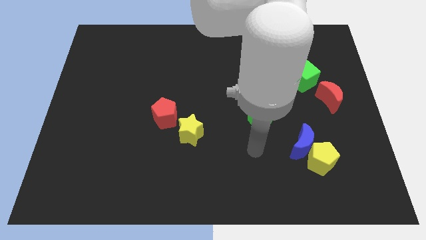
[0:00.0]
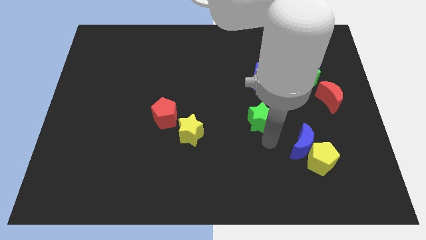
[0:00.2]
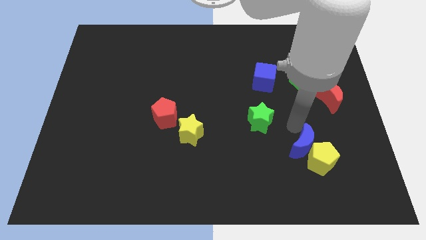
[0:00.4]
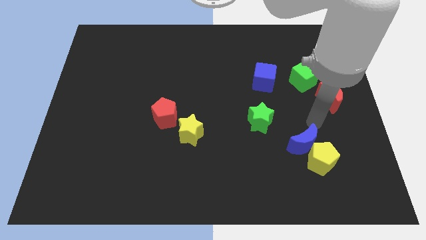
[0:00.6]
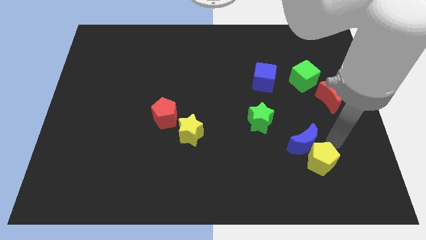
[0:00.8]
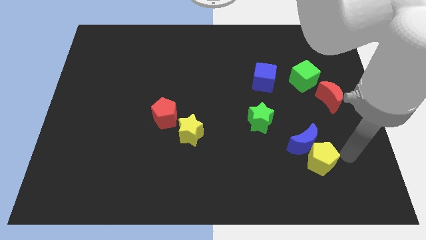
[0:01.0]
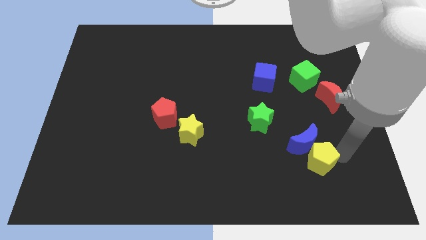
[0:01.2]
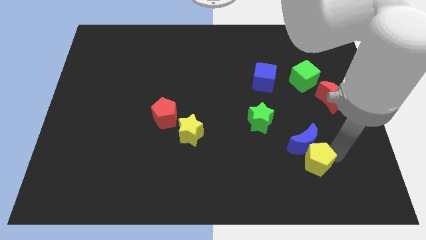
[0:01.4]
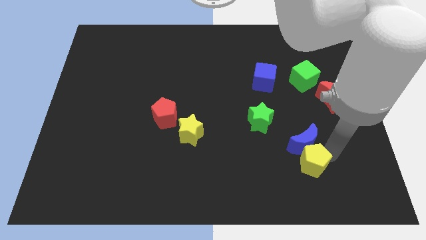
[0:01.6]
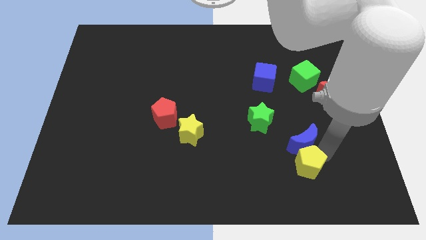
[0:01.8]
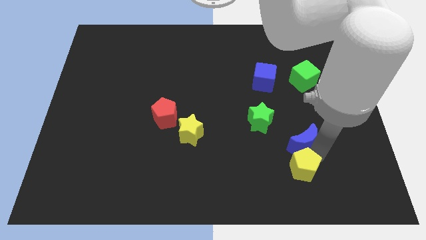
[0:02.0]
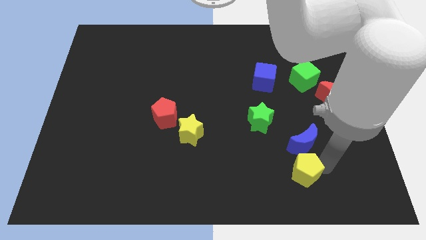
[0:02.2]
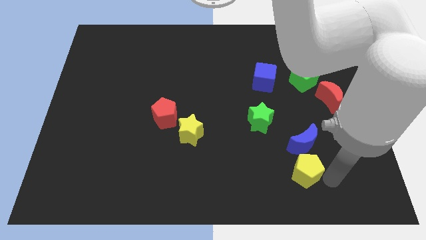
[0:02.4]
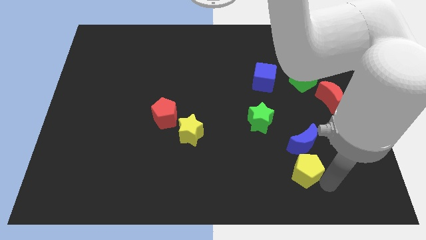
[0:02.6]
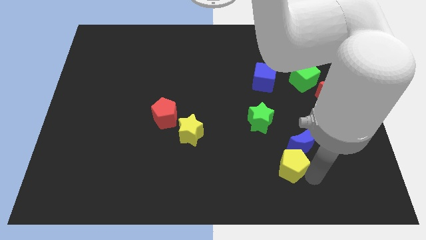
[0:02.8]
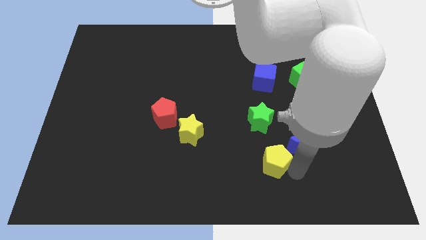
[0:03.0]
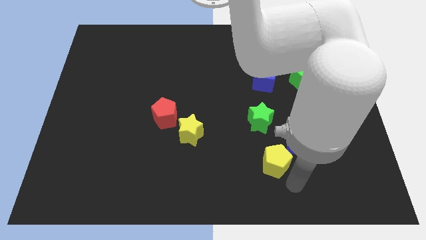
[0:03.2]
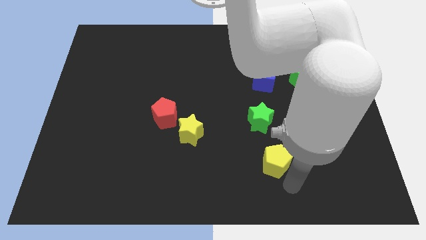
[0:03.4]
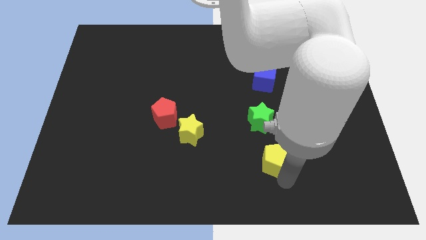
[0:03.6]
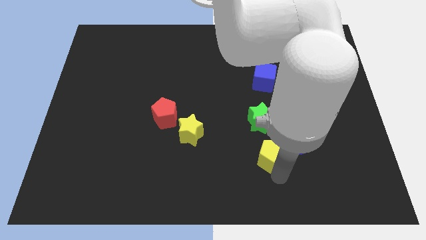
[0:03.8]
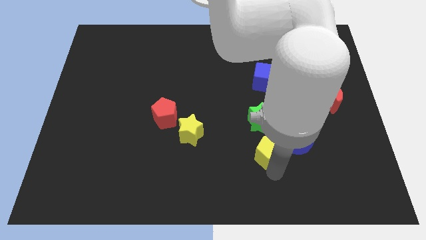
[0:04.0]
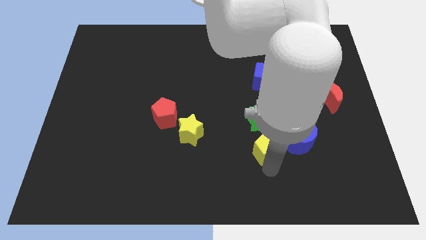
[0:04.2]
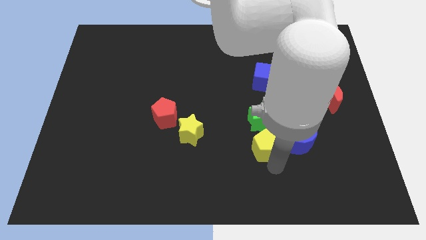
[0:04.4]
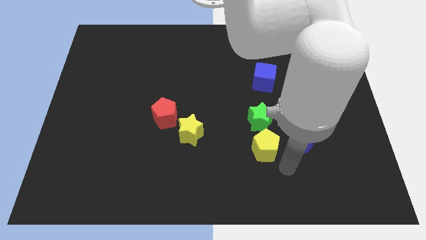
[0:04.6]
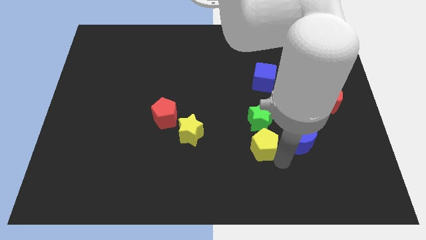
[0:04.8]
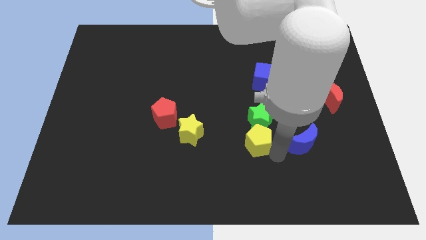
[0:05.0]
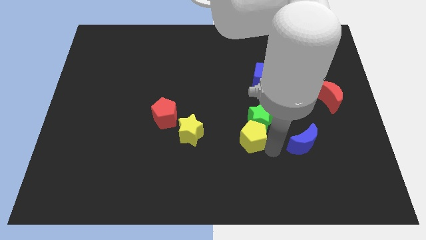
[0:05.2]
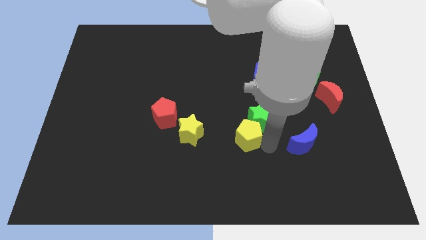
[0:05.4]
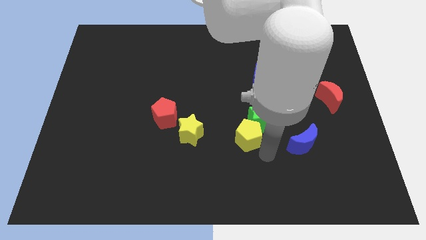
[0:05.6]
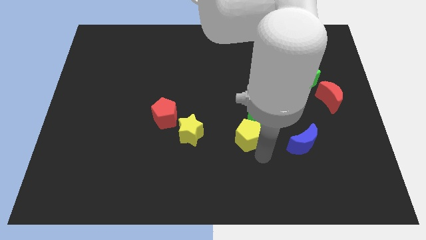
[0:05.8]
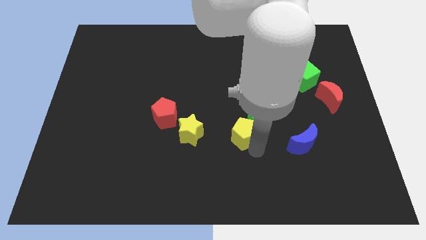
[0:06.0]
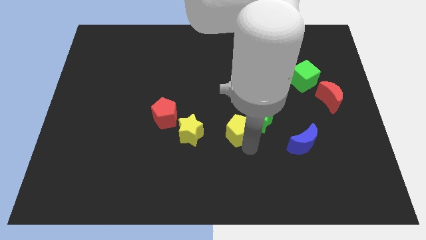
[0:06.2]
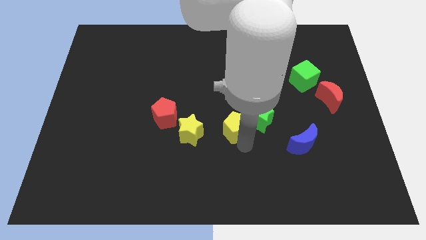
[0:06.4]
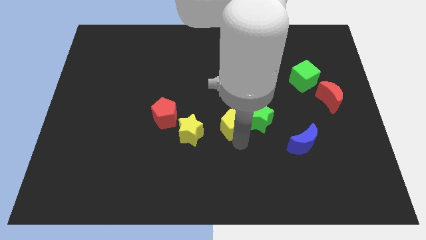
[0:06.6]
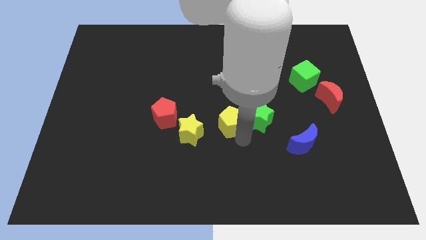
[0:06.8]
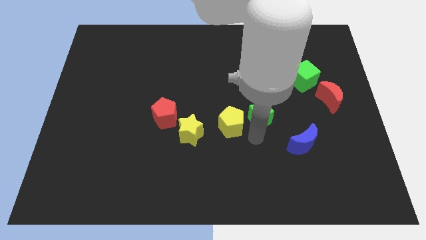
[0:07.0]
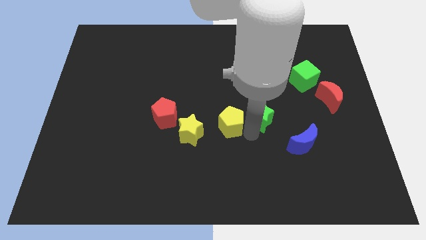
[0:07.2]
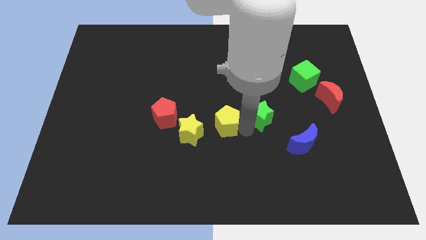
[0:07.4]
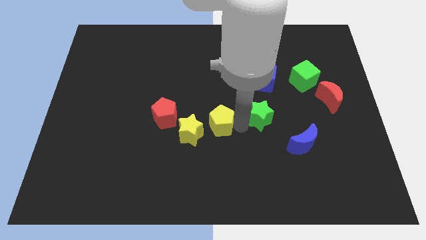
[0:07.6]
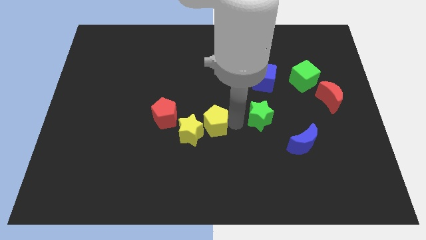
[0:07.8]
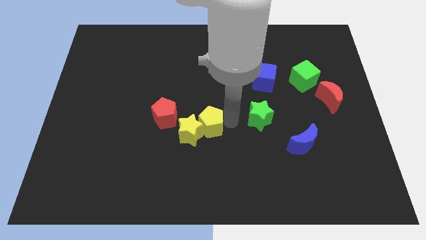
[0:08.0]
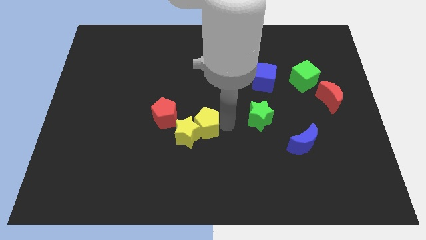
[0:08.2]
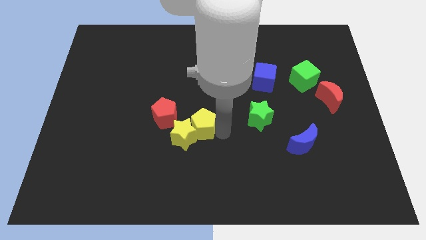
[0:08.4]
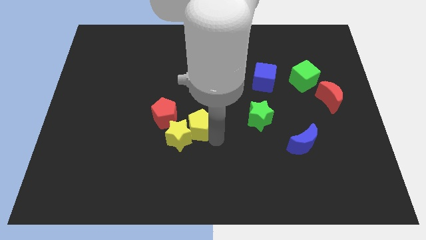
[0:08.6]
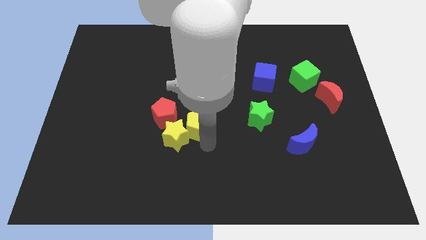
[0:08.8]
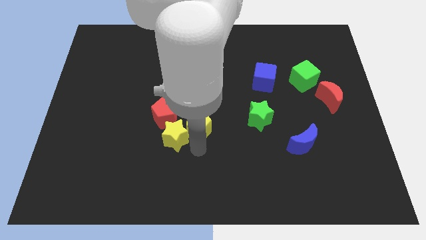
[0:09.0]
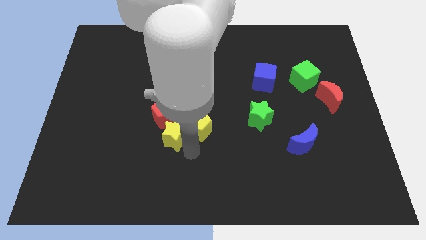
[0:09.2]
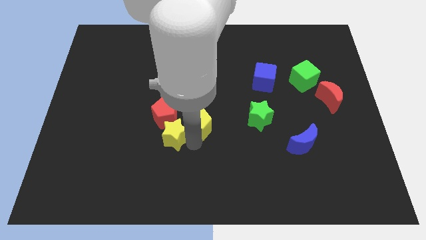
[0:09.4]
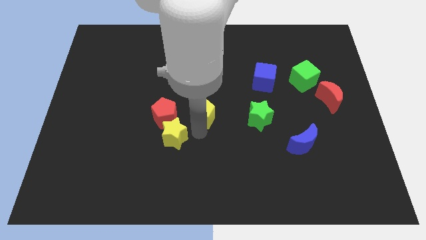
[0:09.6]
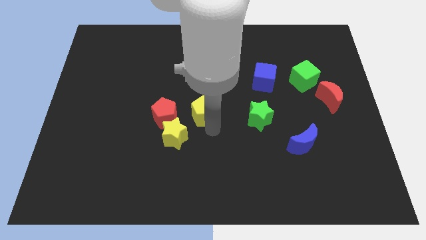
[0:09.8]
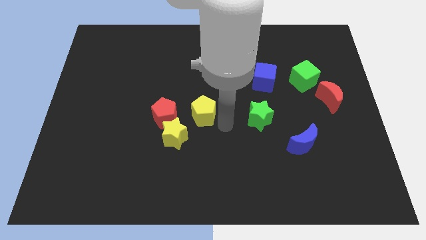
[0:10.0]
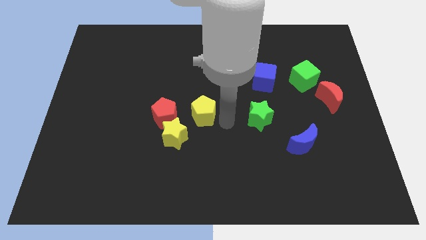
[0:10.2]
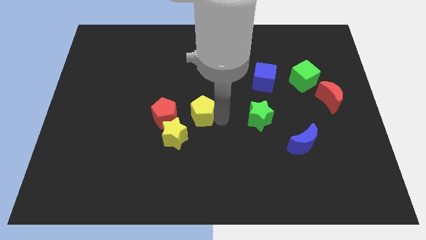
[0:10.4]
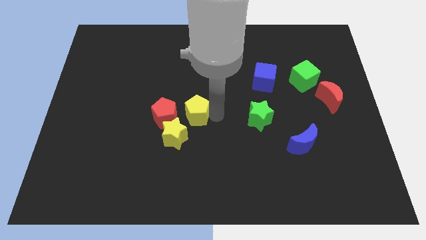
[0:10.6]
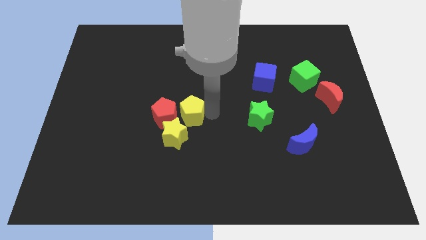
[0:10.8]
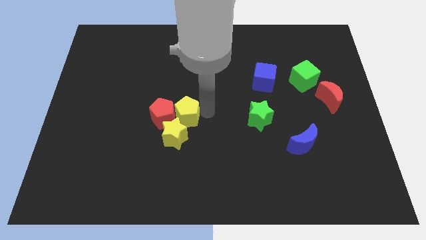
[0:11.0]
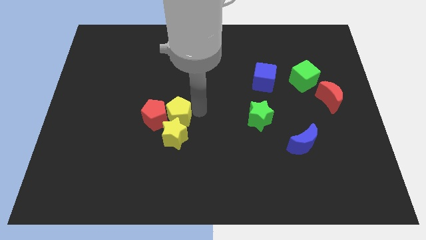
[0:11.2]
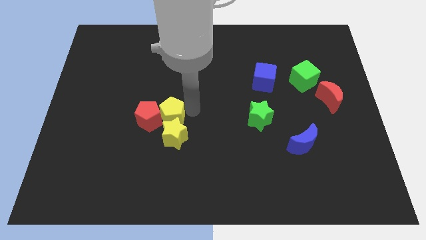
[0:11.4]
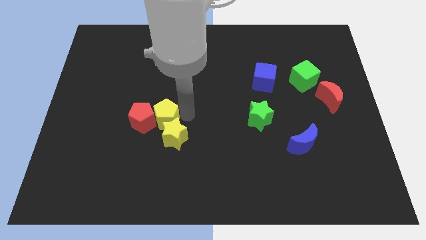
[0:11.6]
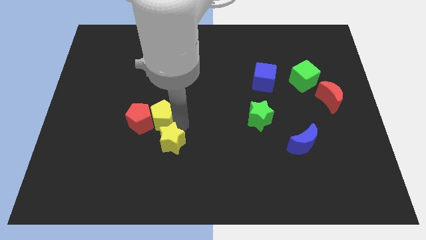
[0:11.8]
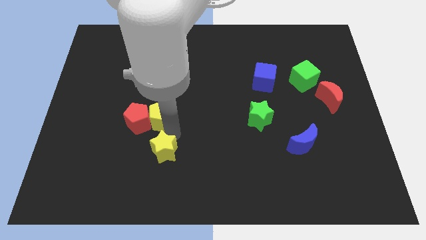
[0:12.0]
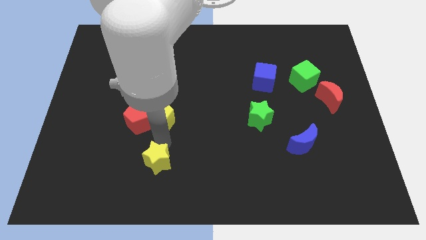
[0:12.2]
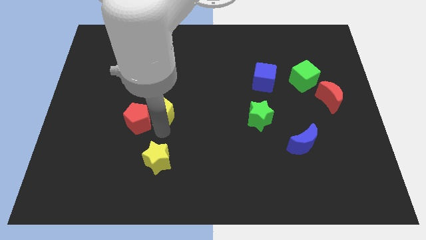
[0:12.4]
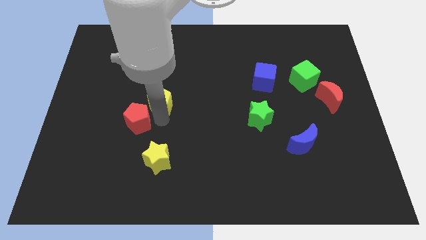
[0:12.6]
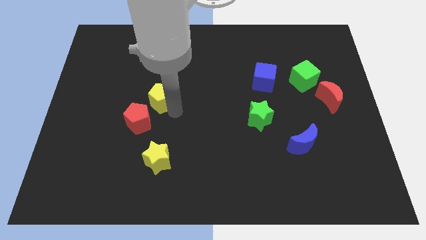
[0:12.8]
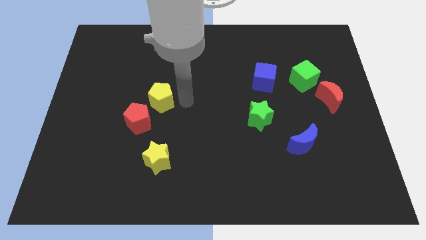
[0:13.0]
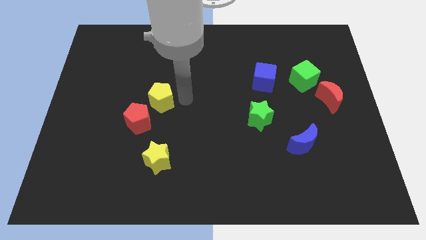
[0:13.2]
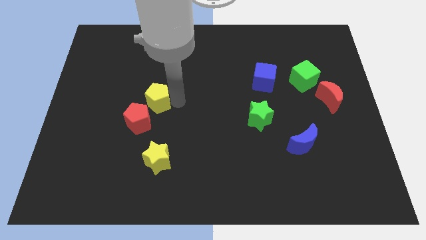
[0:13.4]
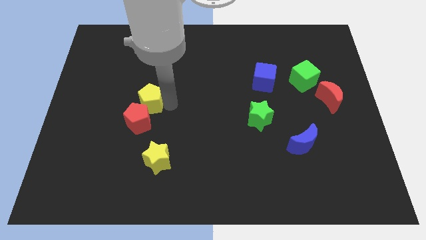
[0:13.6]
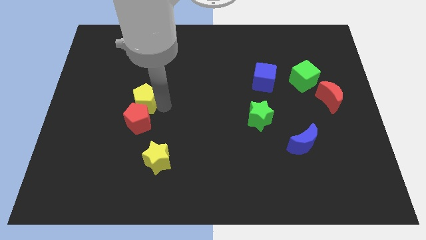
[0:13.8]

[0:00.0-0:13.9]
put the yellow pentagon diagonally up and to the left of the red pentagon
